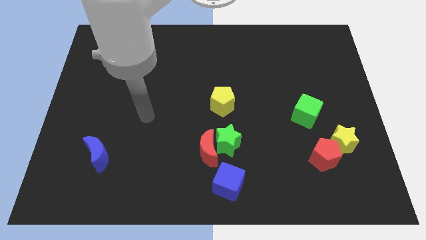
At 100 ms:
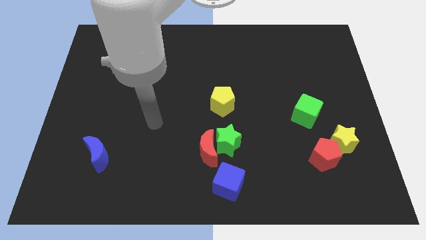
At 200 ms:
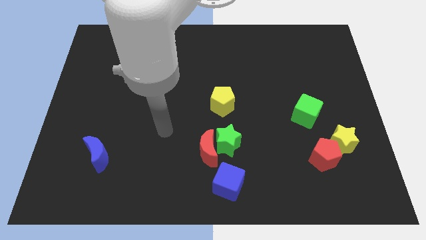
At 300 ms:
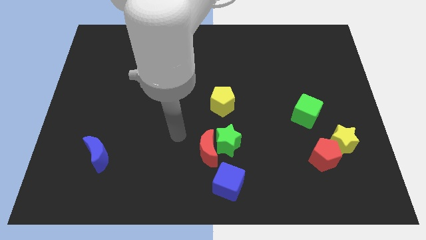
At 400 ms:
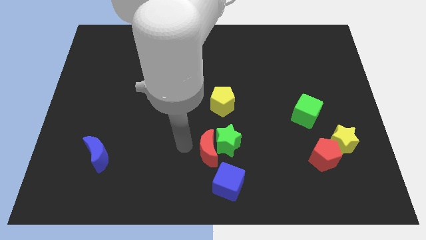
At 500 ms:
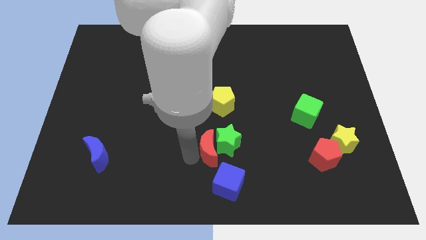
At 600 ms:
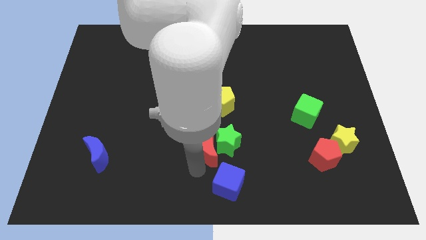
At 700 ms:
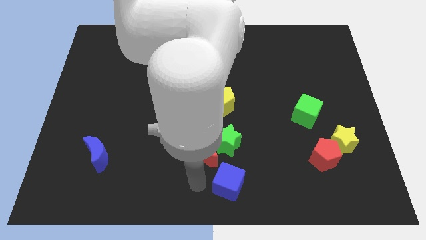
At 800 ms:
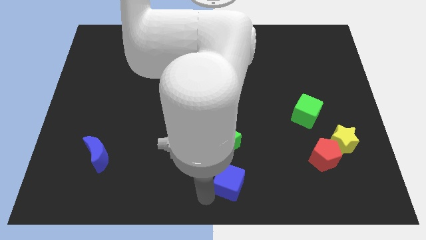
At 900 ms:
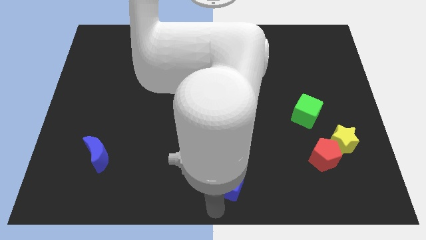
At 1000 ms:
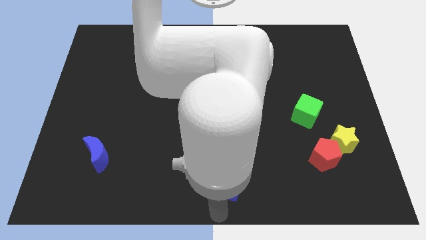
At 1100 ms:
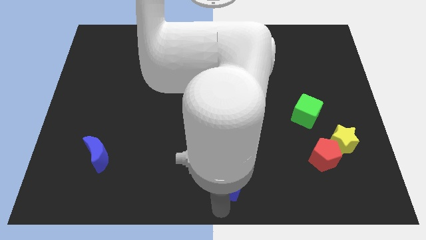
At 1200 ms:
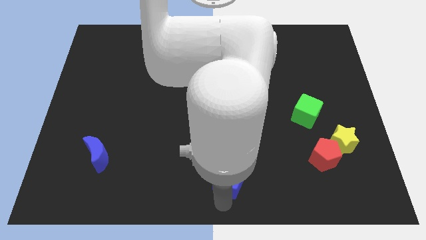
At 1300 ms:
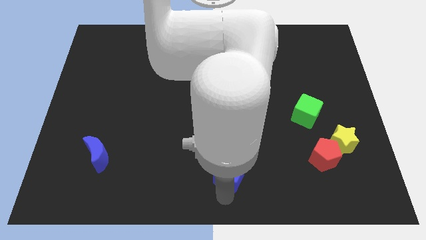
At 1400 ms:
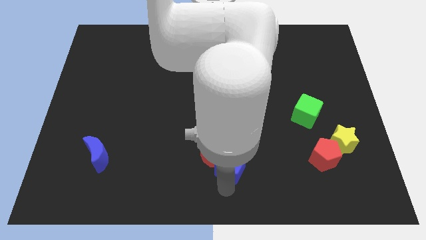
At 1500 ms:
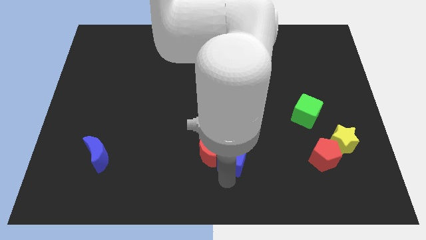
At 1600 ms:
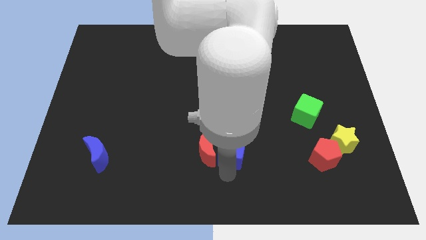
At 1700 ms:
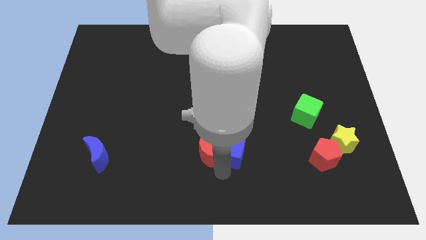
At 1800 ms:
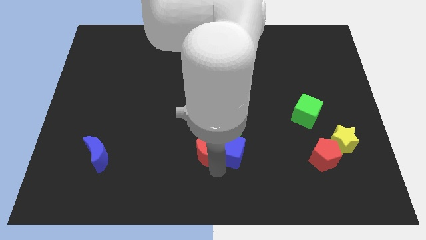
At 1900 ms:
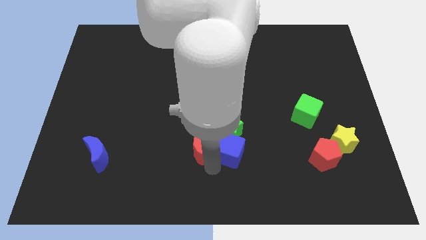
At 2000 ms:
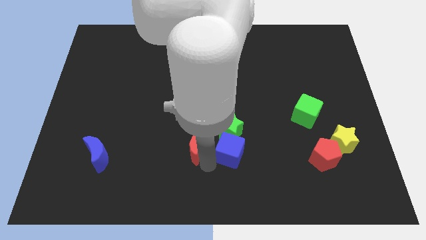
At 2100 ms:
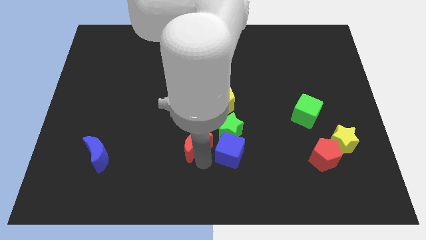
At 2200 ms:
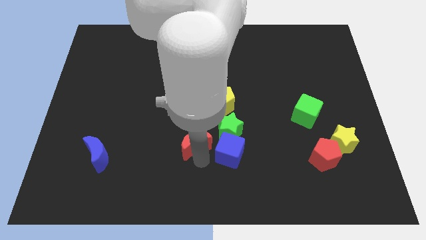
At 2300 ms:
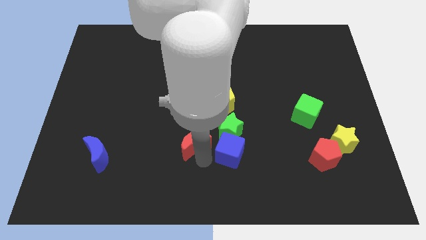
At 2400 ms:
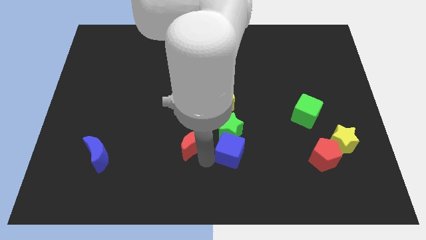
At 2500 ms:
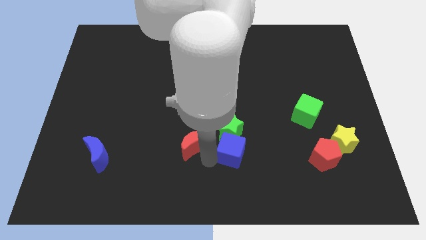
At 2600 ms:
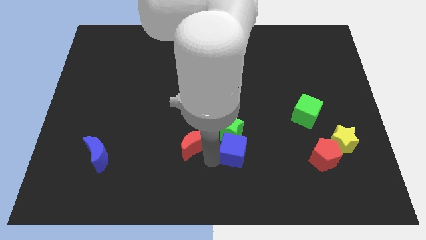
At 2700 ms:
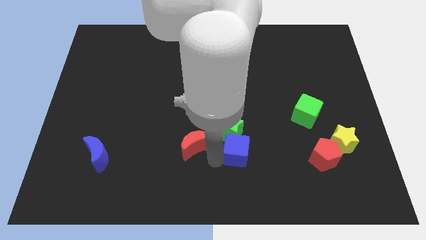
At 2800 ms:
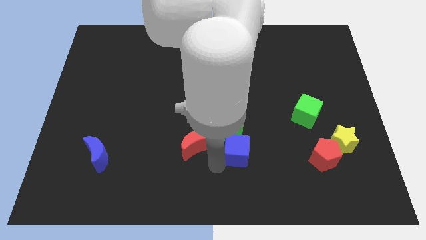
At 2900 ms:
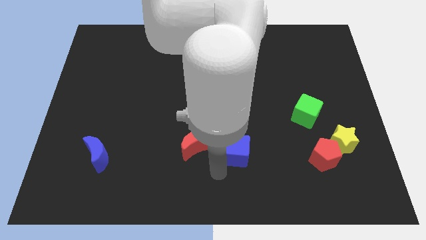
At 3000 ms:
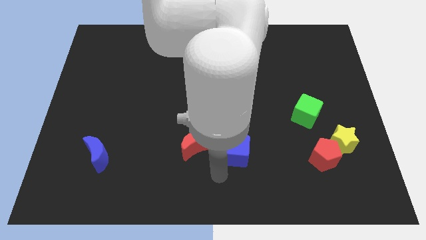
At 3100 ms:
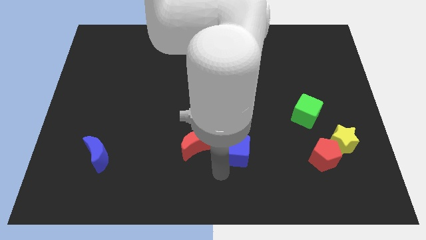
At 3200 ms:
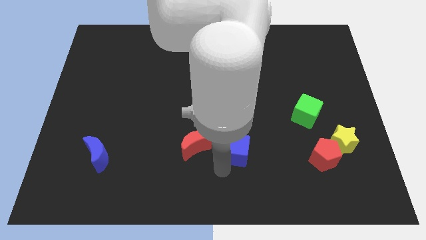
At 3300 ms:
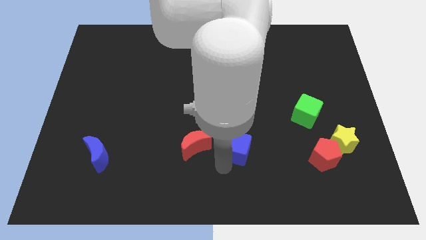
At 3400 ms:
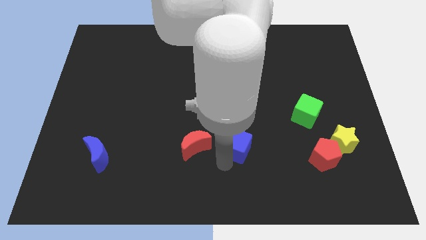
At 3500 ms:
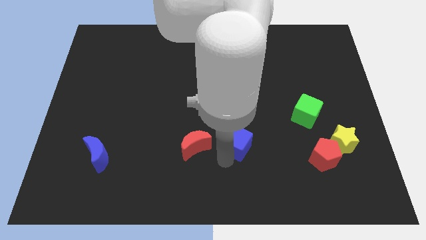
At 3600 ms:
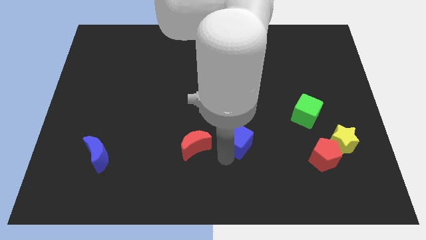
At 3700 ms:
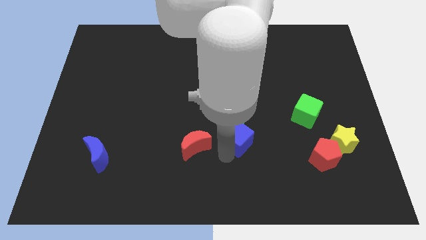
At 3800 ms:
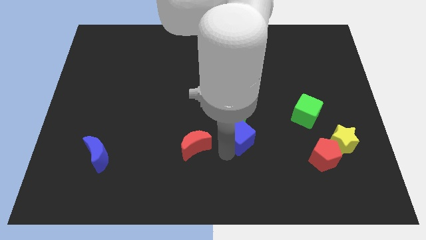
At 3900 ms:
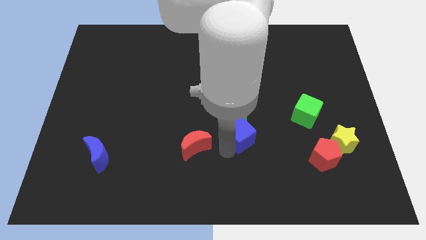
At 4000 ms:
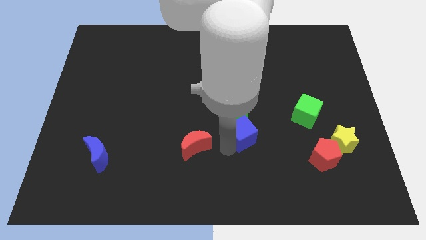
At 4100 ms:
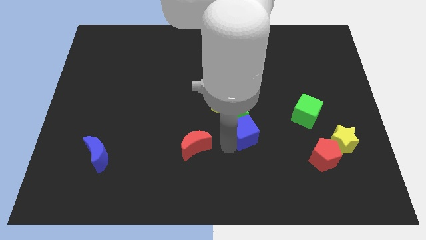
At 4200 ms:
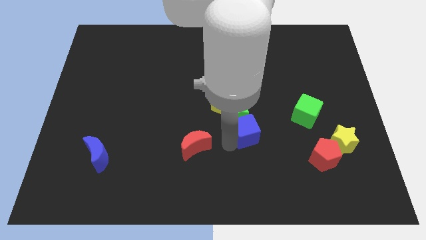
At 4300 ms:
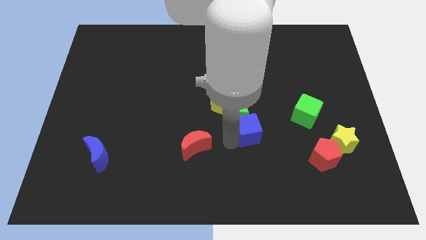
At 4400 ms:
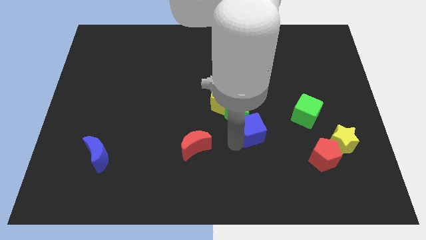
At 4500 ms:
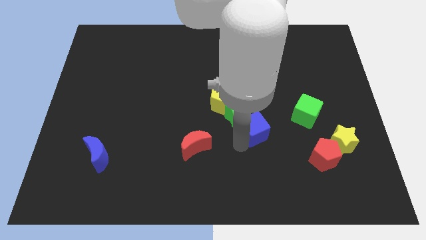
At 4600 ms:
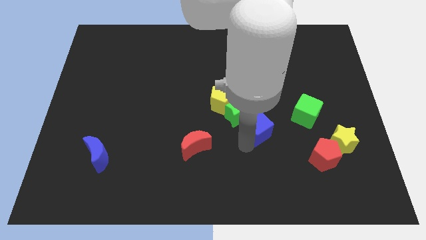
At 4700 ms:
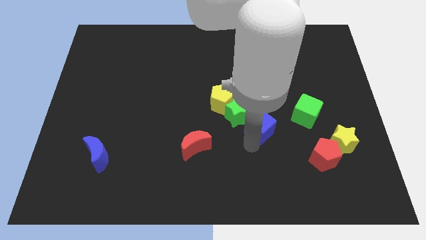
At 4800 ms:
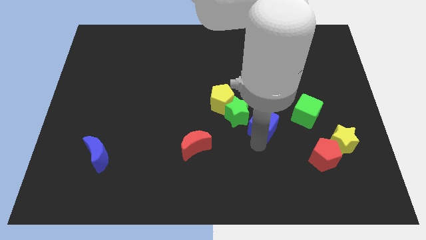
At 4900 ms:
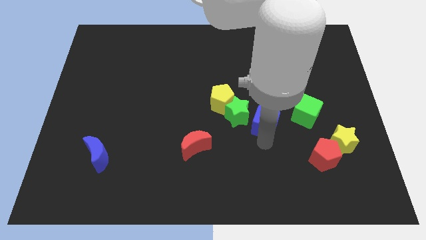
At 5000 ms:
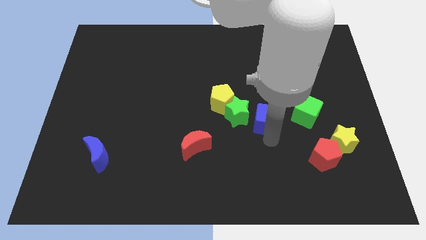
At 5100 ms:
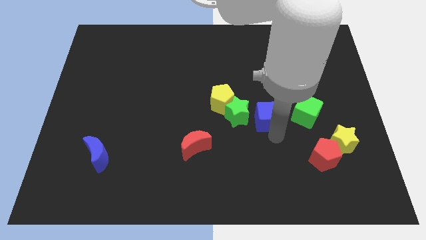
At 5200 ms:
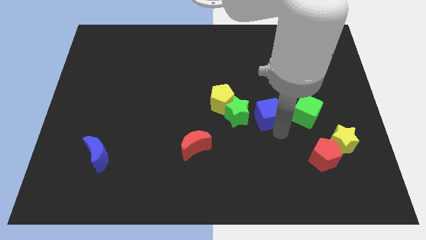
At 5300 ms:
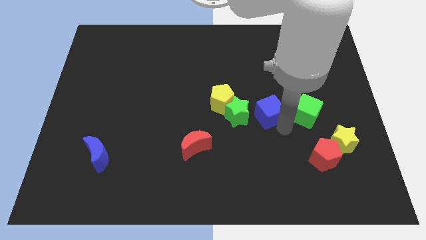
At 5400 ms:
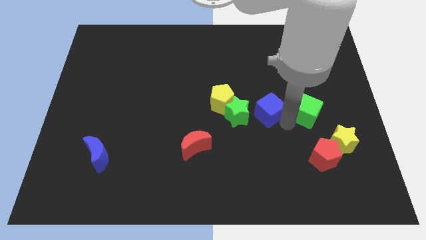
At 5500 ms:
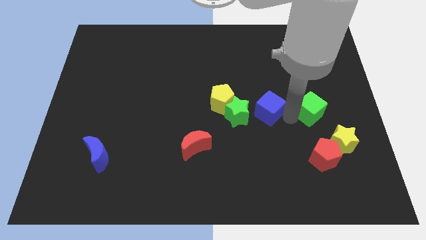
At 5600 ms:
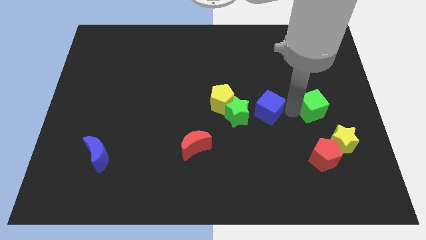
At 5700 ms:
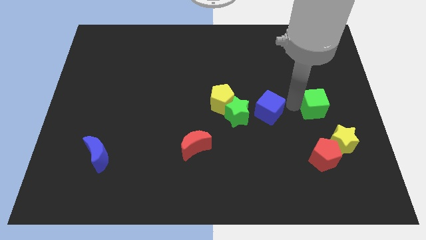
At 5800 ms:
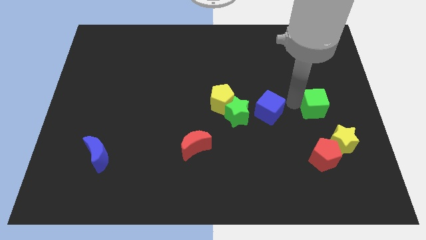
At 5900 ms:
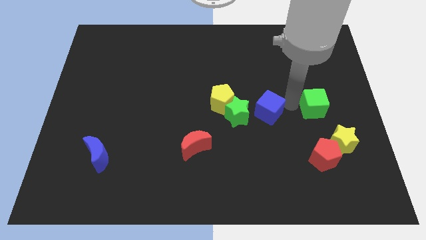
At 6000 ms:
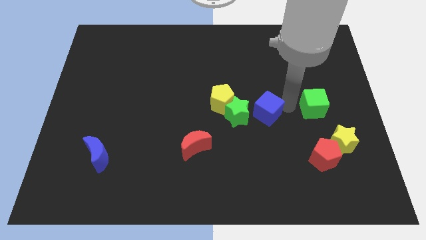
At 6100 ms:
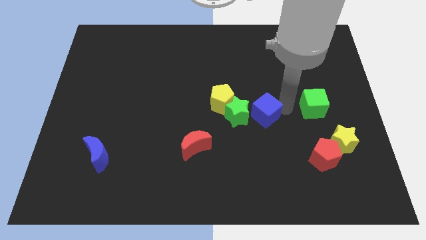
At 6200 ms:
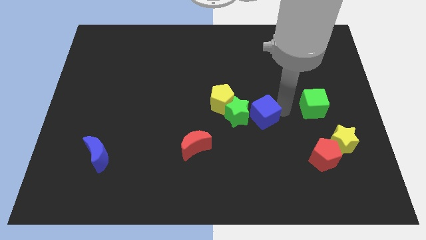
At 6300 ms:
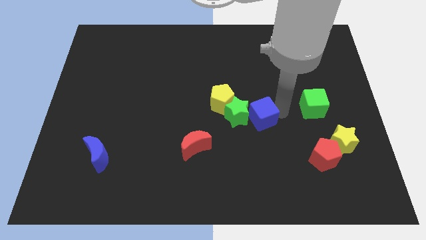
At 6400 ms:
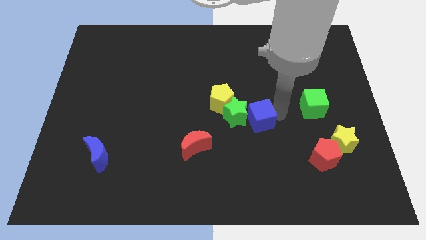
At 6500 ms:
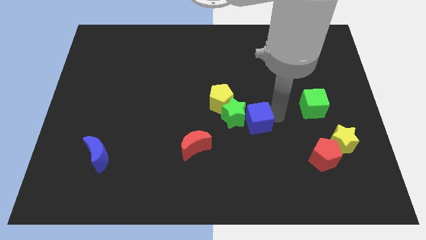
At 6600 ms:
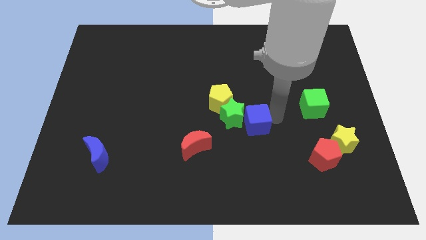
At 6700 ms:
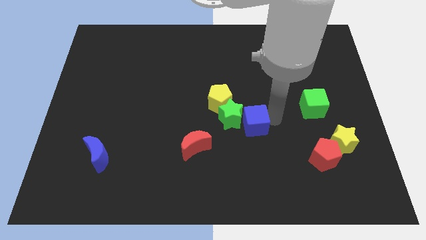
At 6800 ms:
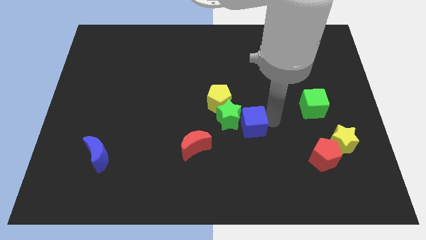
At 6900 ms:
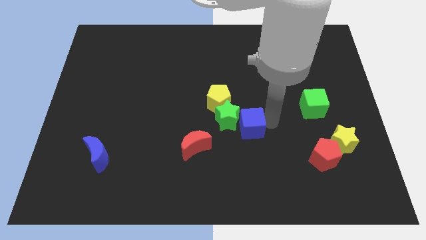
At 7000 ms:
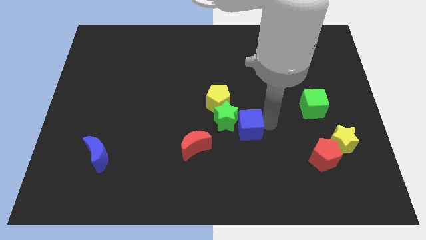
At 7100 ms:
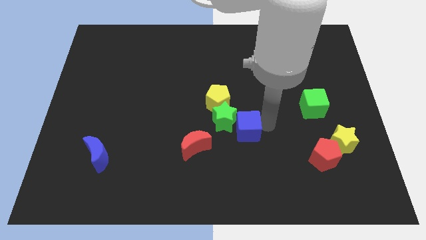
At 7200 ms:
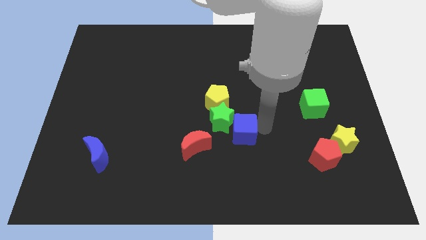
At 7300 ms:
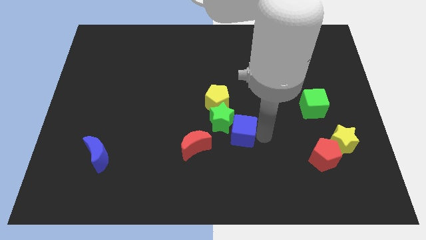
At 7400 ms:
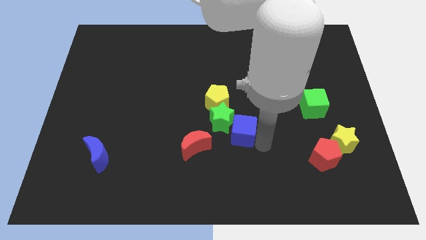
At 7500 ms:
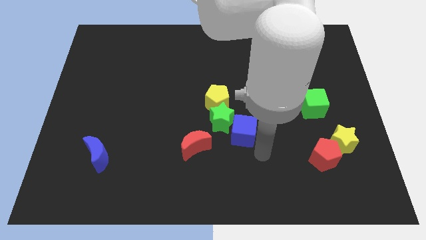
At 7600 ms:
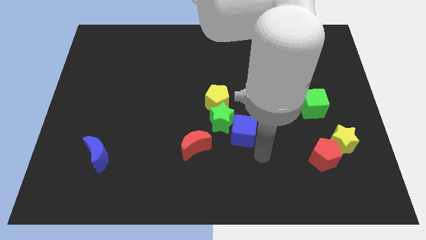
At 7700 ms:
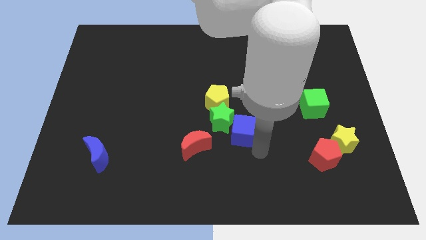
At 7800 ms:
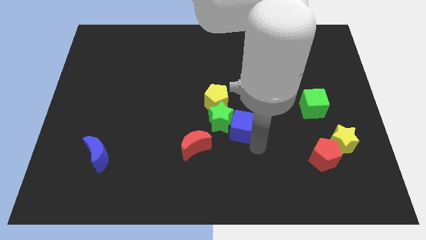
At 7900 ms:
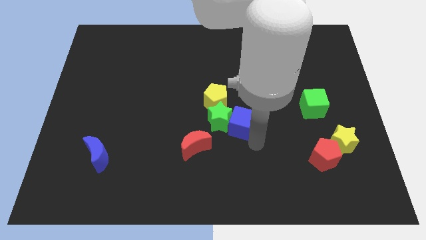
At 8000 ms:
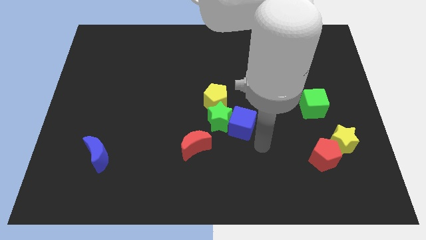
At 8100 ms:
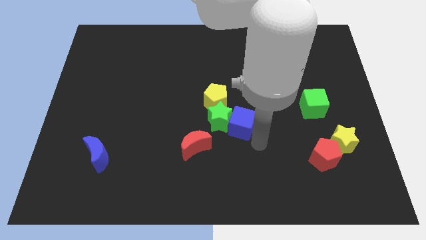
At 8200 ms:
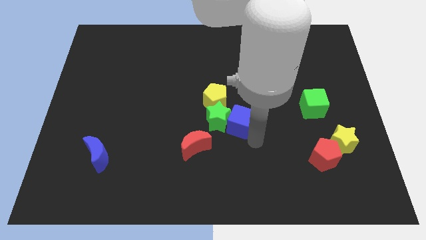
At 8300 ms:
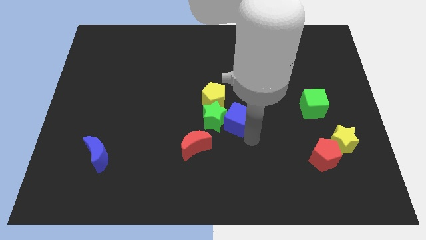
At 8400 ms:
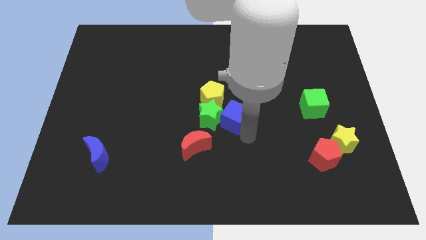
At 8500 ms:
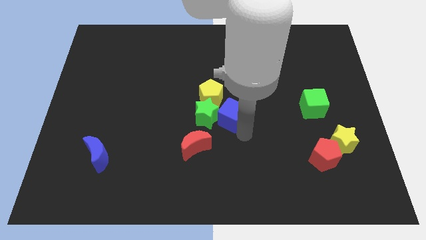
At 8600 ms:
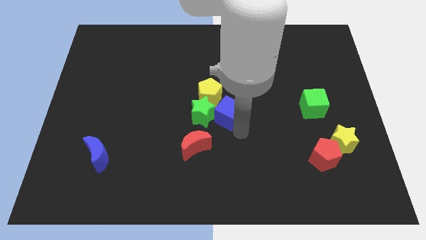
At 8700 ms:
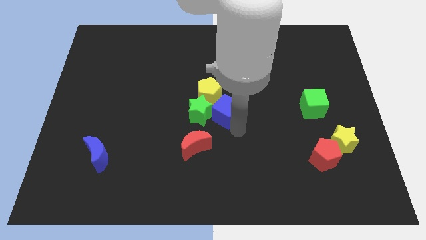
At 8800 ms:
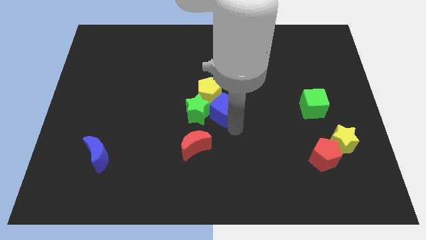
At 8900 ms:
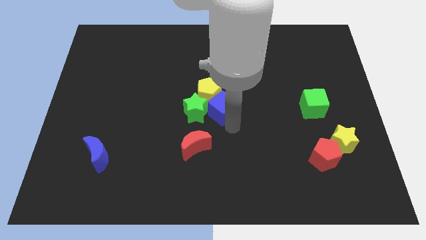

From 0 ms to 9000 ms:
slide the blue cube close to the yellow pentagon
